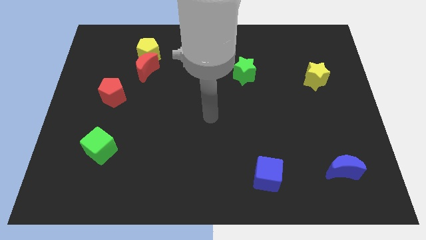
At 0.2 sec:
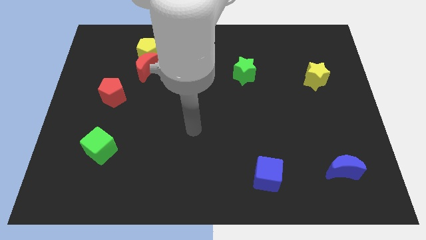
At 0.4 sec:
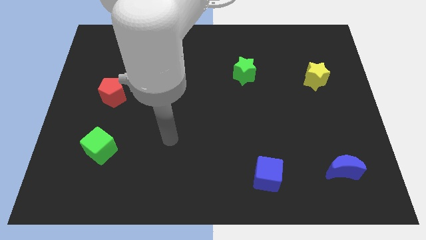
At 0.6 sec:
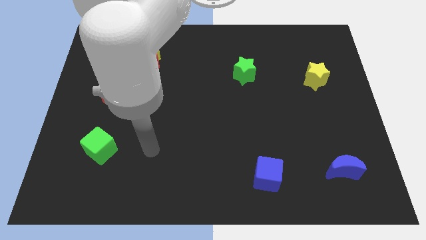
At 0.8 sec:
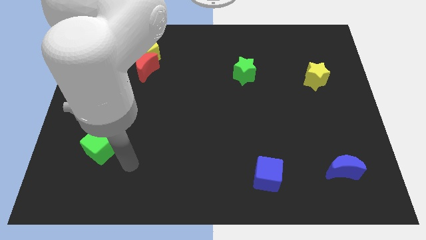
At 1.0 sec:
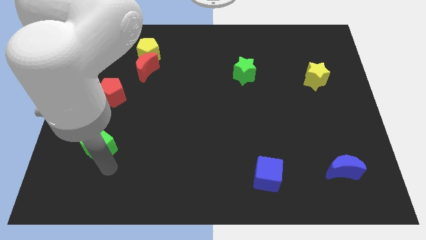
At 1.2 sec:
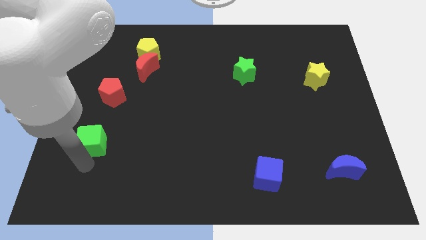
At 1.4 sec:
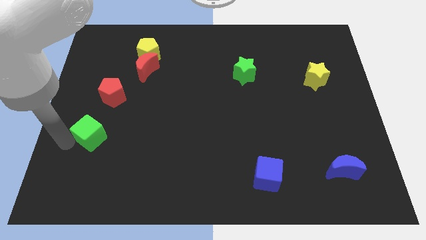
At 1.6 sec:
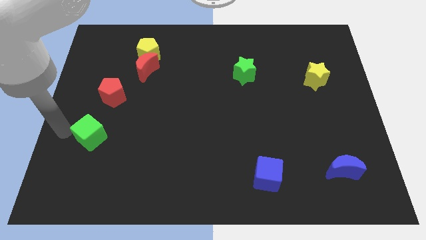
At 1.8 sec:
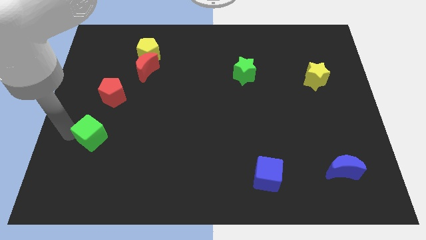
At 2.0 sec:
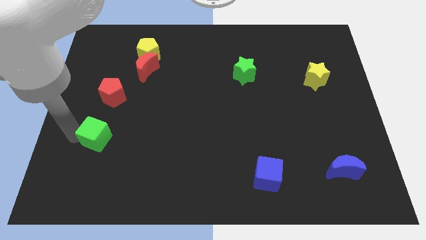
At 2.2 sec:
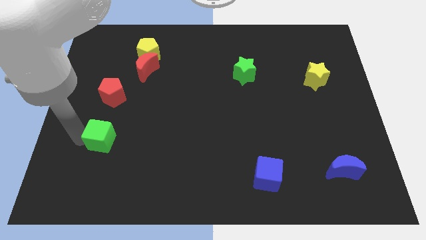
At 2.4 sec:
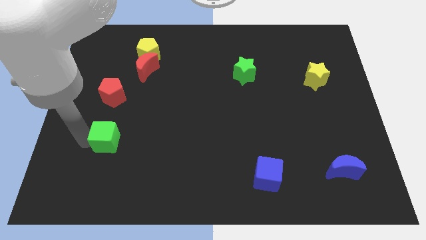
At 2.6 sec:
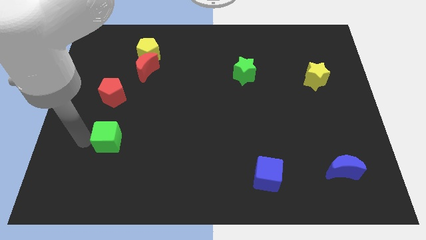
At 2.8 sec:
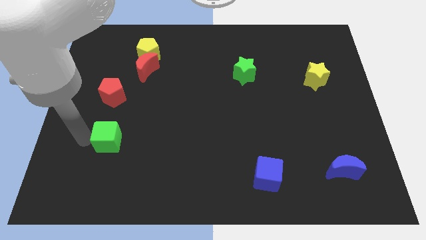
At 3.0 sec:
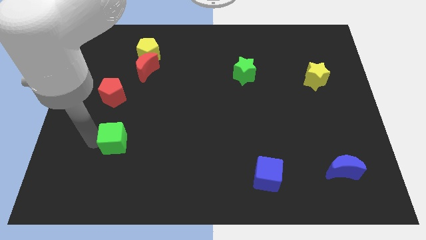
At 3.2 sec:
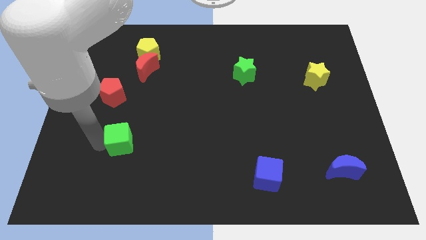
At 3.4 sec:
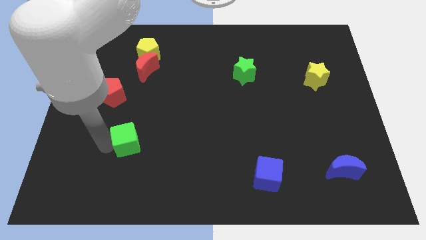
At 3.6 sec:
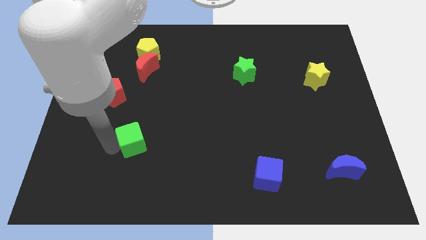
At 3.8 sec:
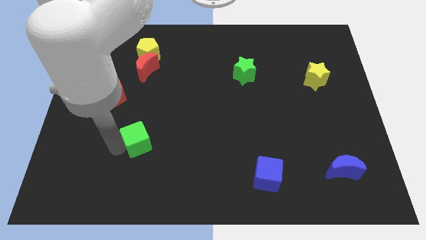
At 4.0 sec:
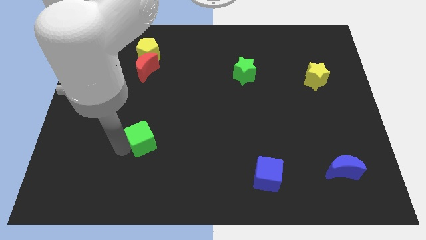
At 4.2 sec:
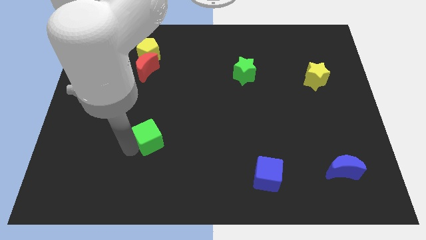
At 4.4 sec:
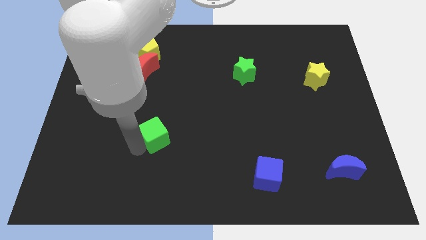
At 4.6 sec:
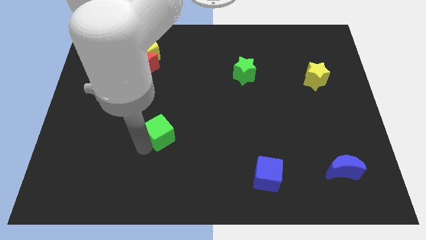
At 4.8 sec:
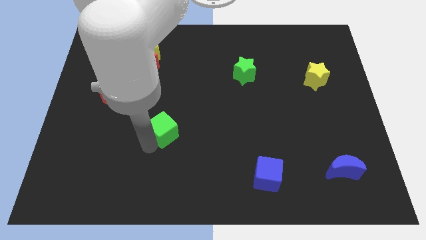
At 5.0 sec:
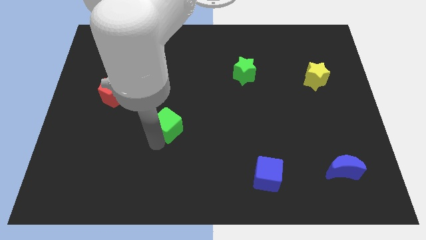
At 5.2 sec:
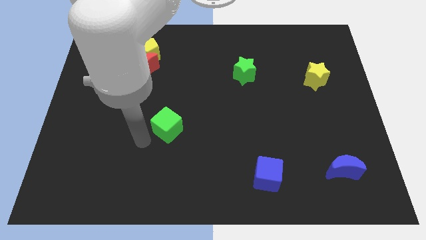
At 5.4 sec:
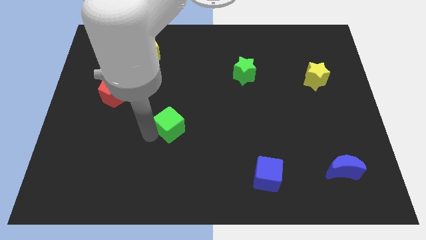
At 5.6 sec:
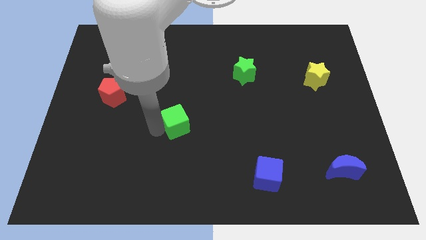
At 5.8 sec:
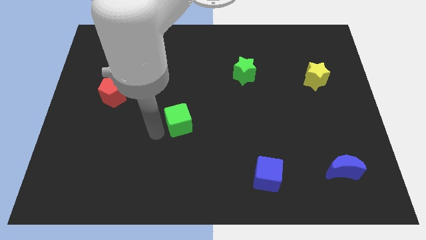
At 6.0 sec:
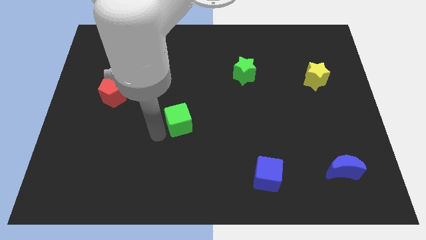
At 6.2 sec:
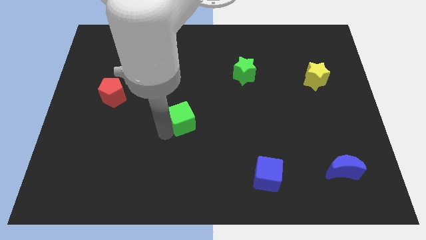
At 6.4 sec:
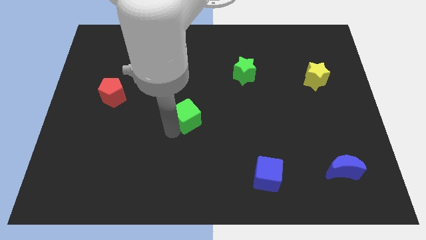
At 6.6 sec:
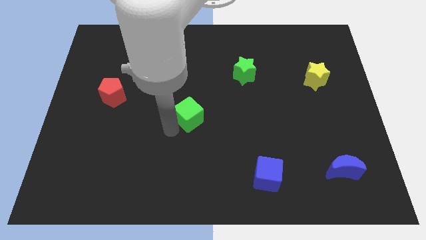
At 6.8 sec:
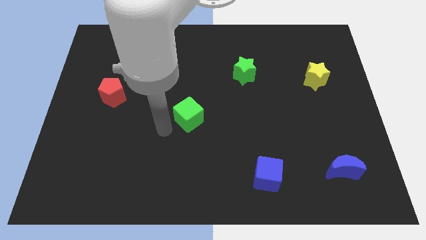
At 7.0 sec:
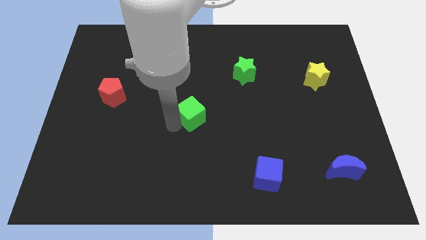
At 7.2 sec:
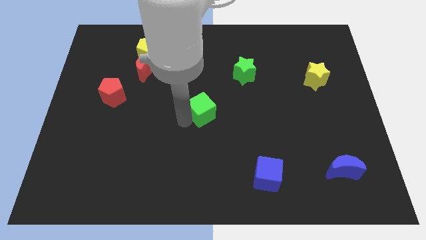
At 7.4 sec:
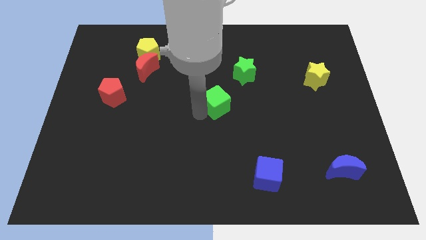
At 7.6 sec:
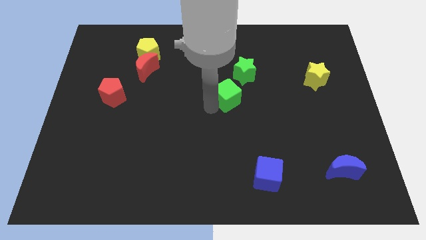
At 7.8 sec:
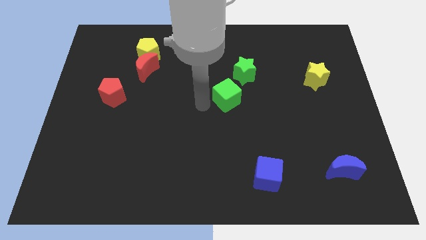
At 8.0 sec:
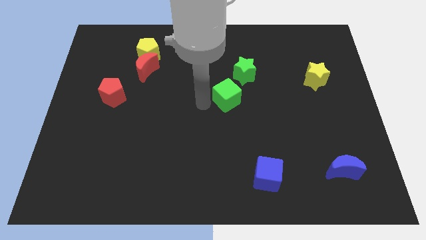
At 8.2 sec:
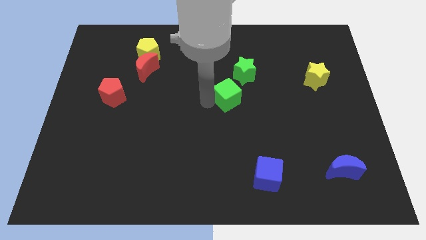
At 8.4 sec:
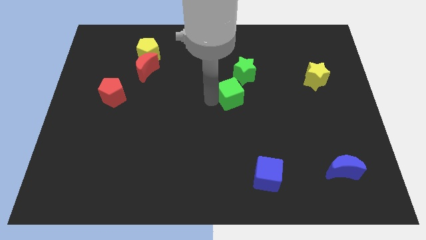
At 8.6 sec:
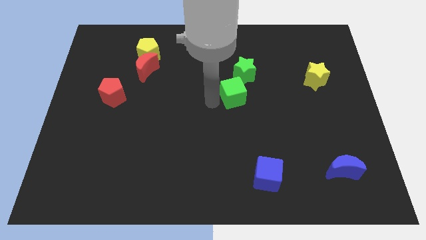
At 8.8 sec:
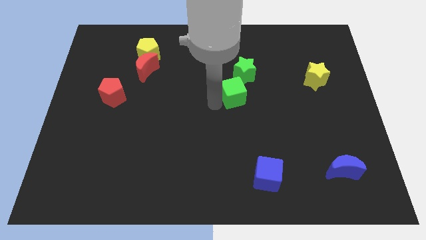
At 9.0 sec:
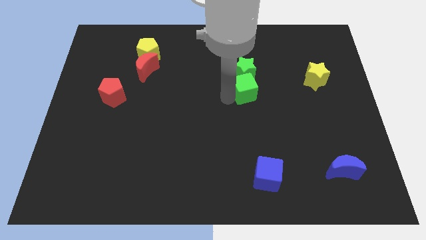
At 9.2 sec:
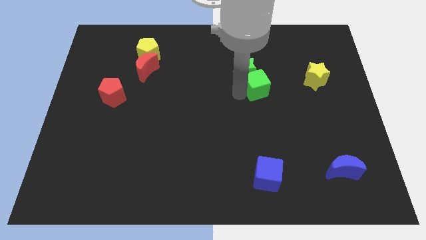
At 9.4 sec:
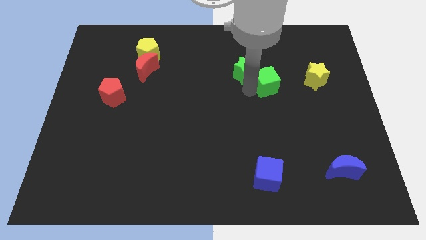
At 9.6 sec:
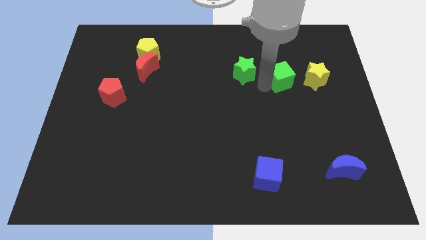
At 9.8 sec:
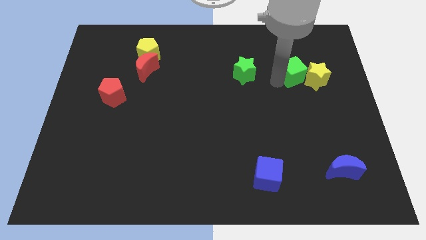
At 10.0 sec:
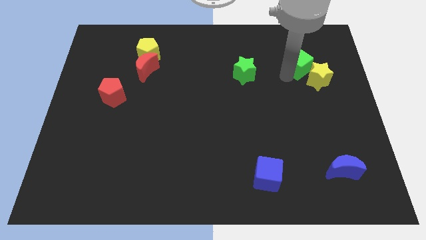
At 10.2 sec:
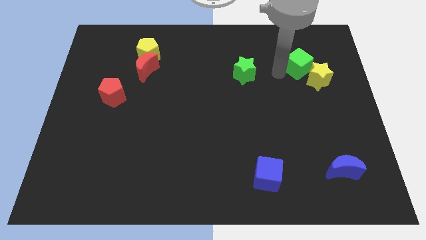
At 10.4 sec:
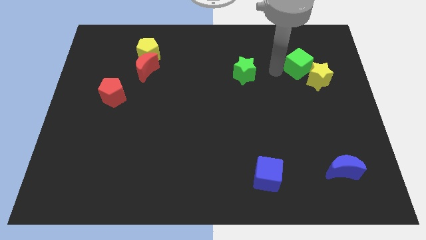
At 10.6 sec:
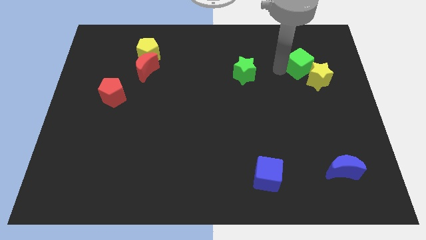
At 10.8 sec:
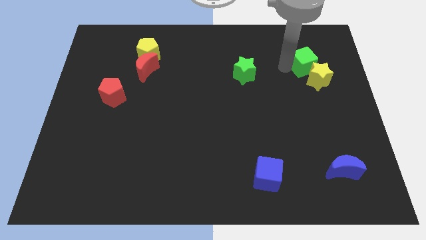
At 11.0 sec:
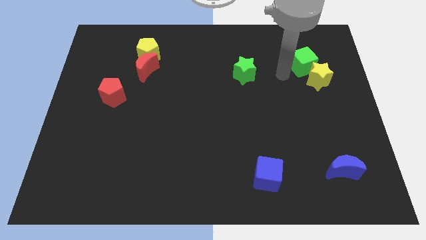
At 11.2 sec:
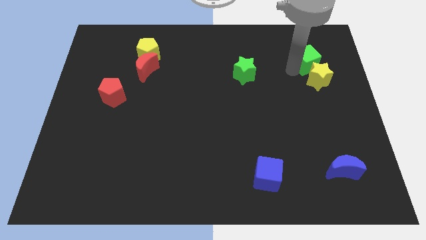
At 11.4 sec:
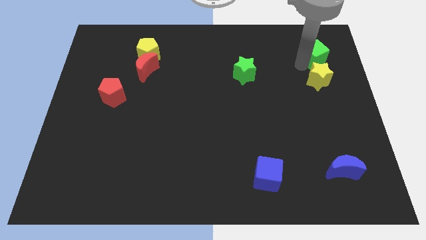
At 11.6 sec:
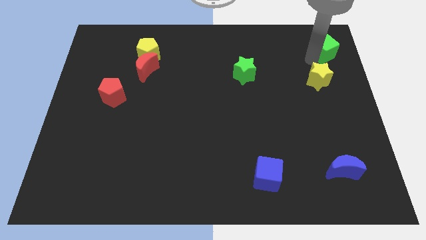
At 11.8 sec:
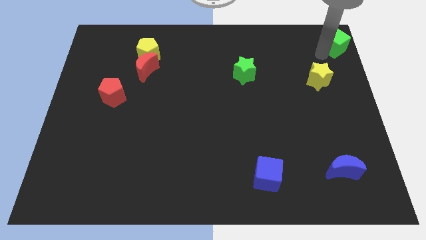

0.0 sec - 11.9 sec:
put the green cube to the top right of the board
